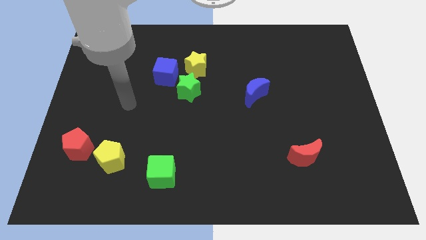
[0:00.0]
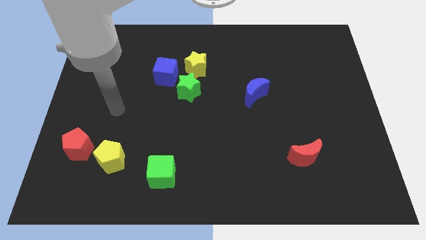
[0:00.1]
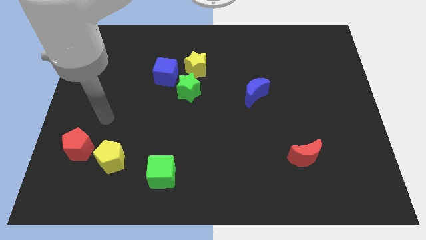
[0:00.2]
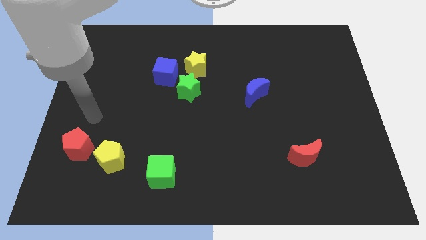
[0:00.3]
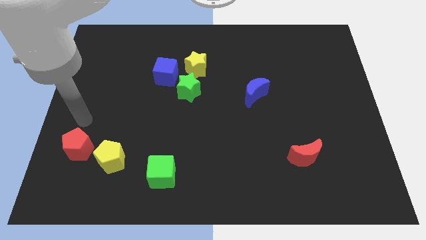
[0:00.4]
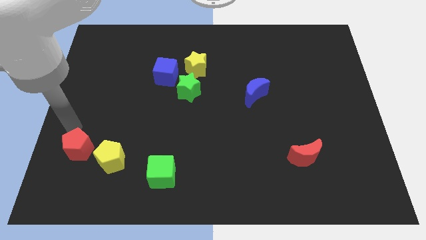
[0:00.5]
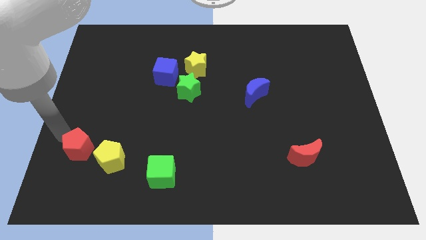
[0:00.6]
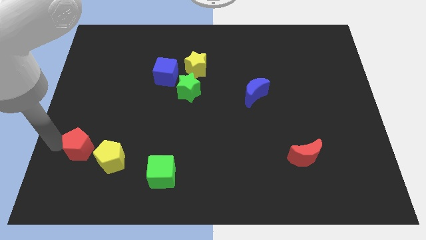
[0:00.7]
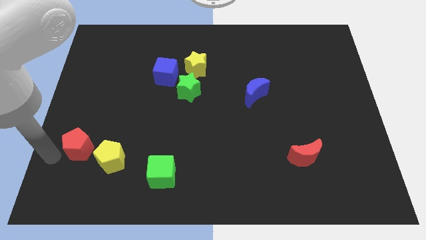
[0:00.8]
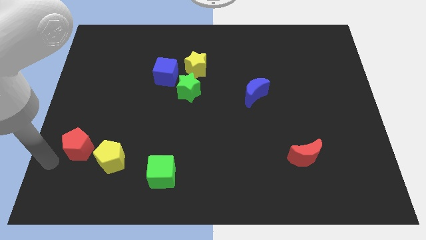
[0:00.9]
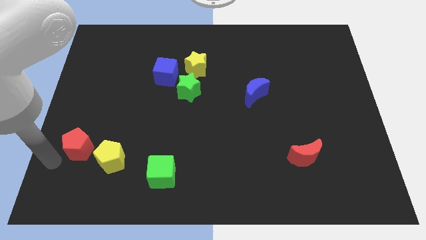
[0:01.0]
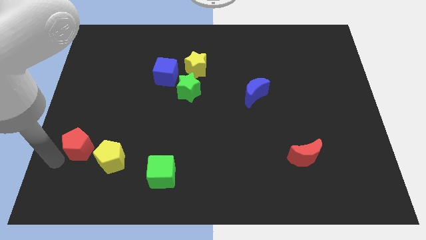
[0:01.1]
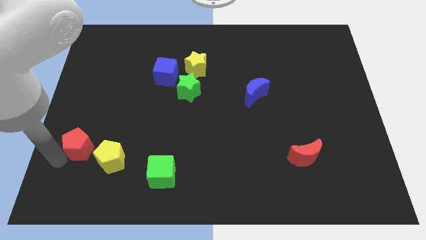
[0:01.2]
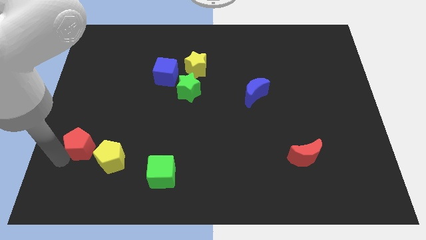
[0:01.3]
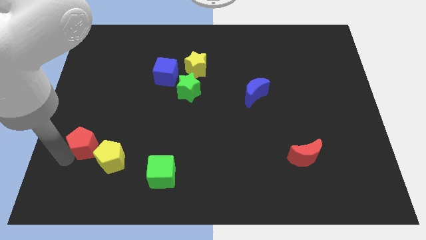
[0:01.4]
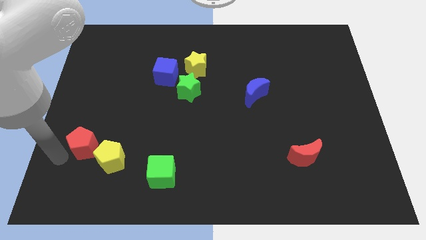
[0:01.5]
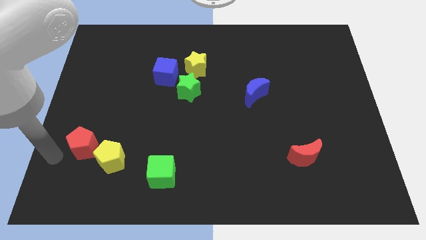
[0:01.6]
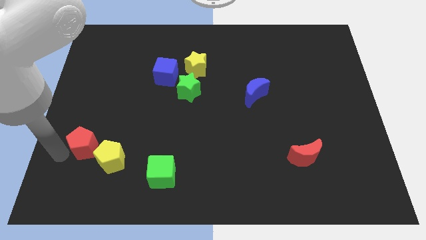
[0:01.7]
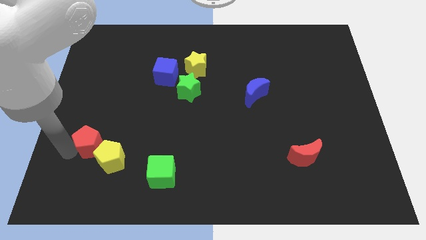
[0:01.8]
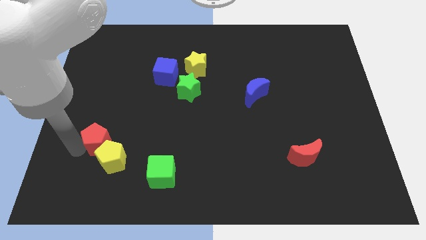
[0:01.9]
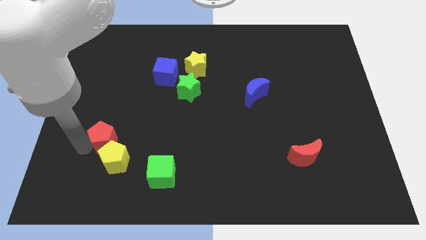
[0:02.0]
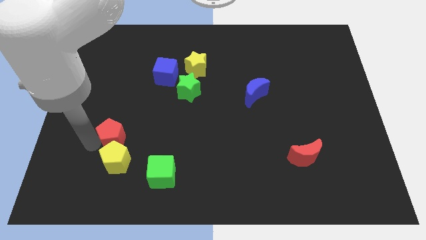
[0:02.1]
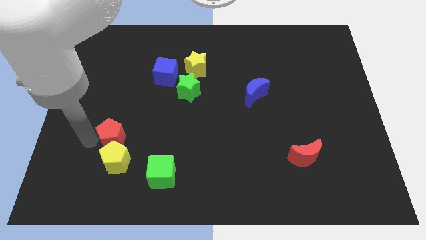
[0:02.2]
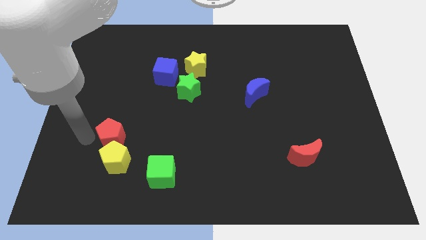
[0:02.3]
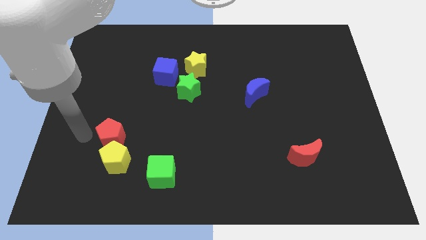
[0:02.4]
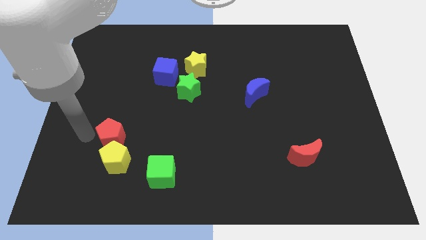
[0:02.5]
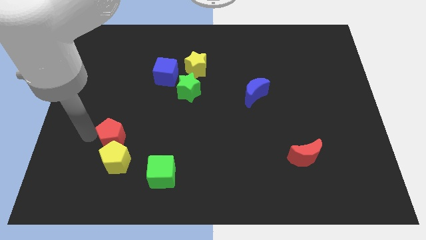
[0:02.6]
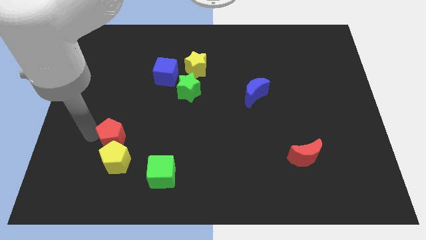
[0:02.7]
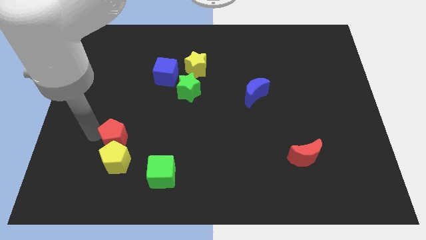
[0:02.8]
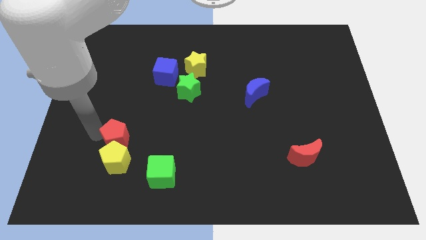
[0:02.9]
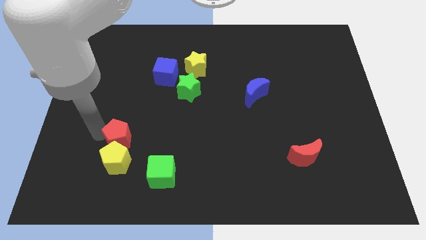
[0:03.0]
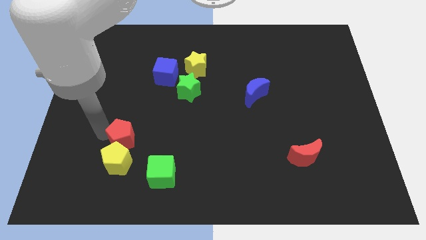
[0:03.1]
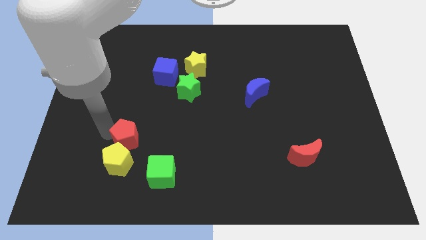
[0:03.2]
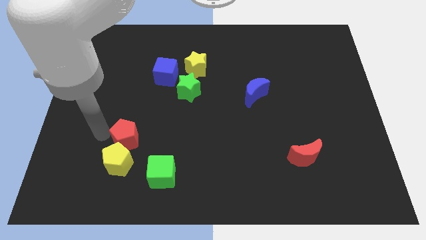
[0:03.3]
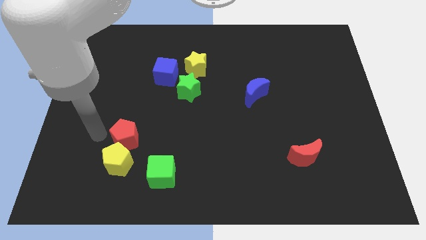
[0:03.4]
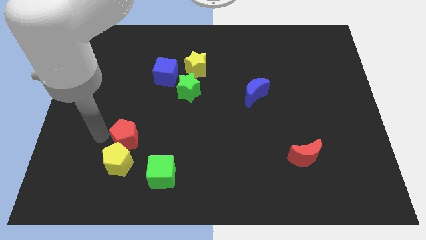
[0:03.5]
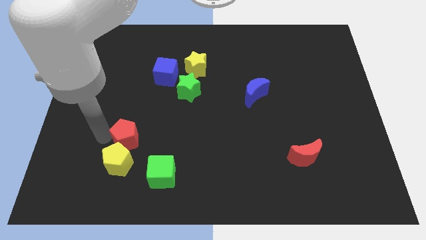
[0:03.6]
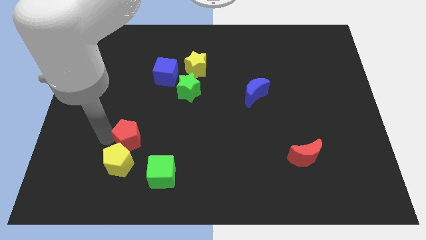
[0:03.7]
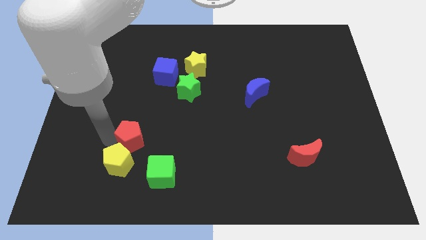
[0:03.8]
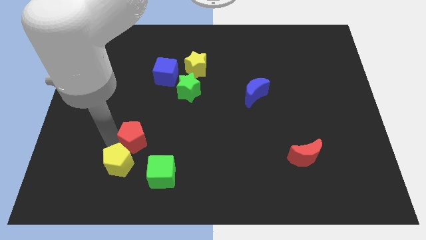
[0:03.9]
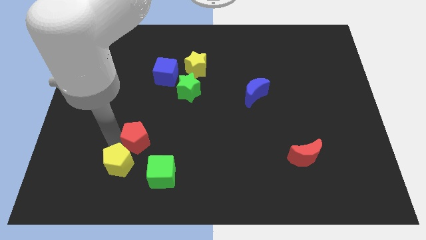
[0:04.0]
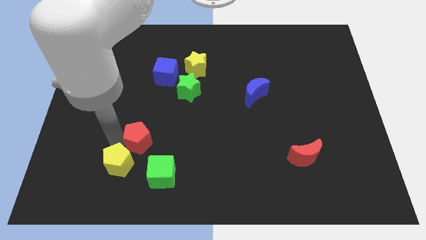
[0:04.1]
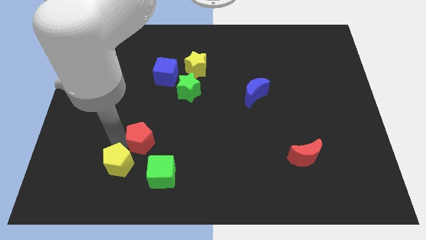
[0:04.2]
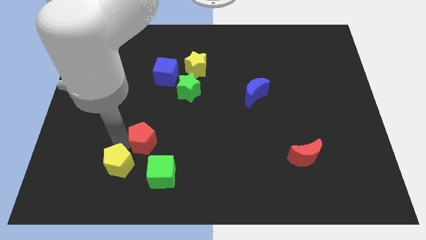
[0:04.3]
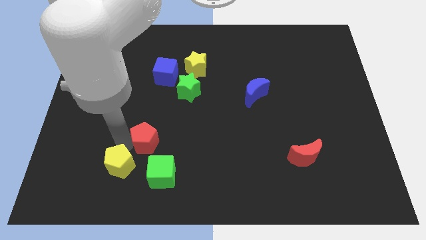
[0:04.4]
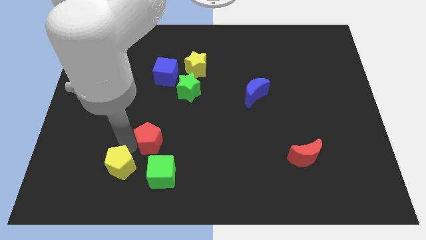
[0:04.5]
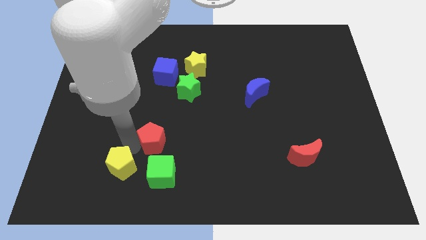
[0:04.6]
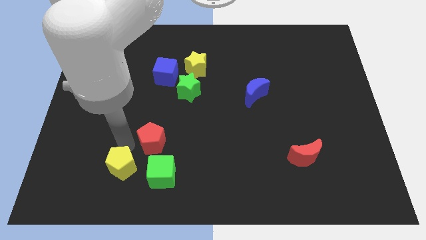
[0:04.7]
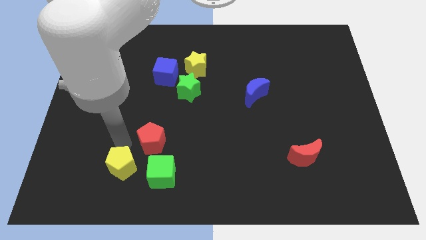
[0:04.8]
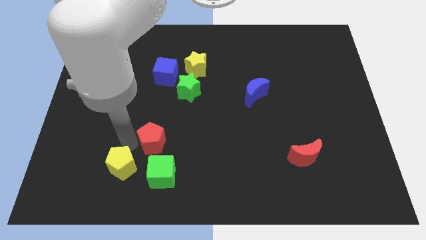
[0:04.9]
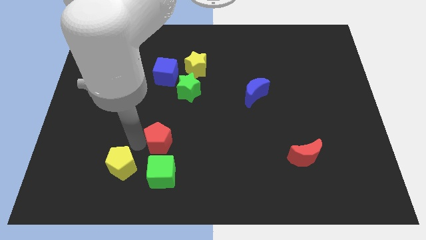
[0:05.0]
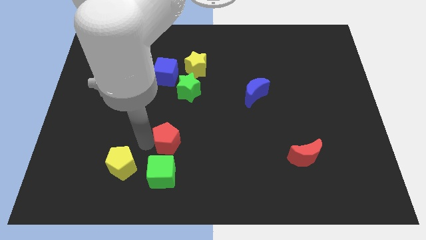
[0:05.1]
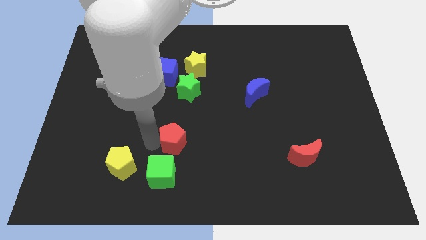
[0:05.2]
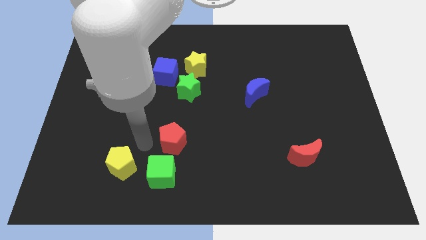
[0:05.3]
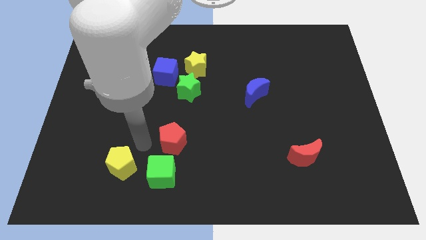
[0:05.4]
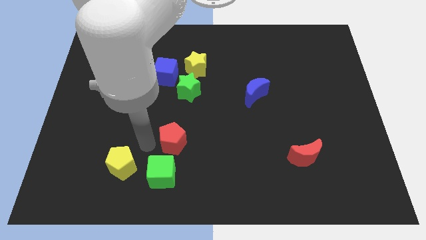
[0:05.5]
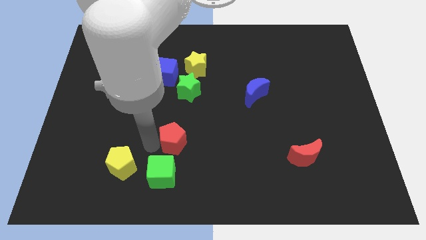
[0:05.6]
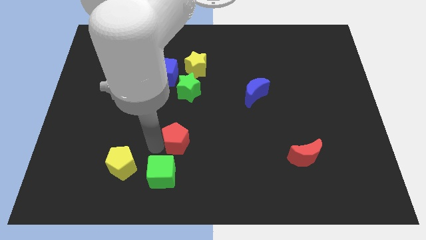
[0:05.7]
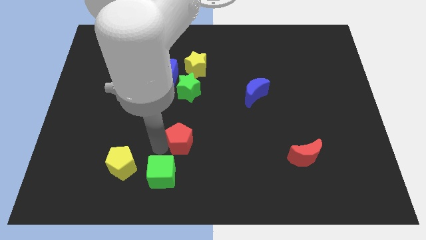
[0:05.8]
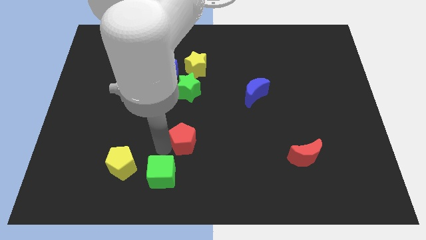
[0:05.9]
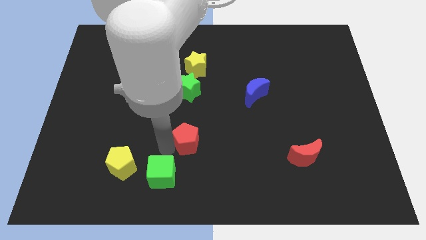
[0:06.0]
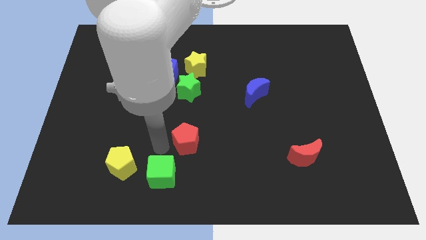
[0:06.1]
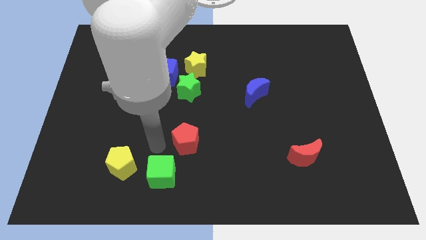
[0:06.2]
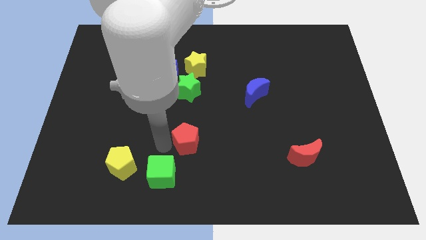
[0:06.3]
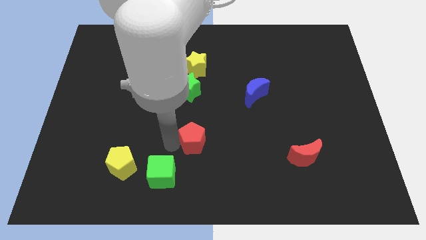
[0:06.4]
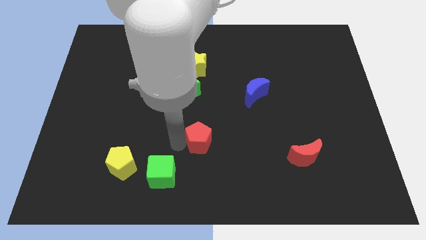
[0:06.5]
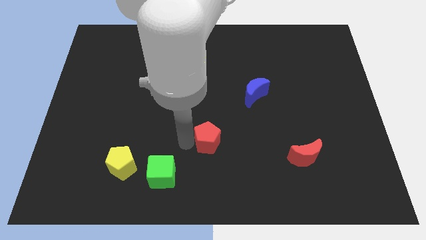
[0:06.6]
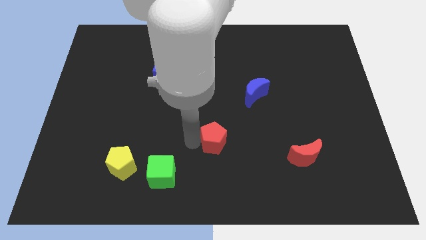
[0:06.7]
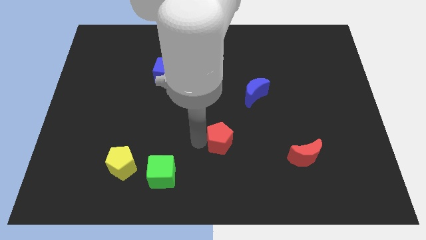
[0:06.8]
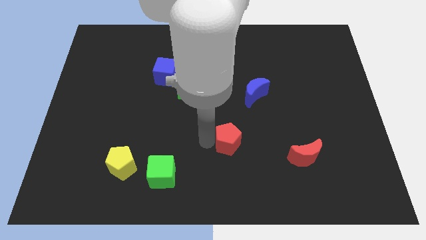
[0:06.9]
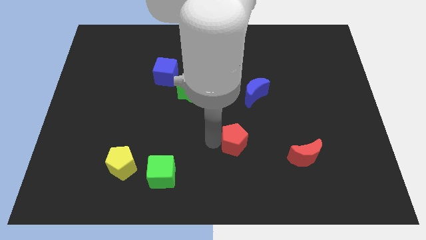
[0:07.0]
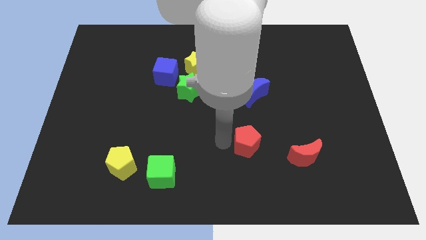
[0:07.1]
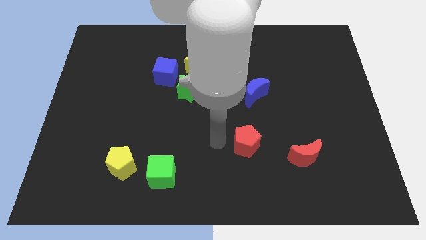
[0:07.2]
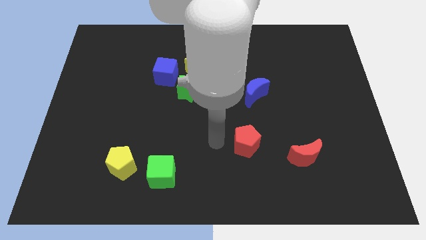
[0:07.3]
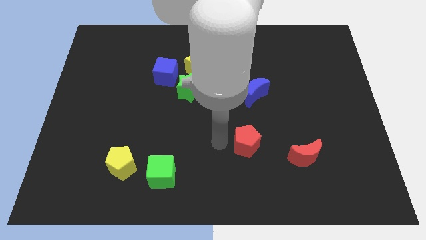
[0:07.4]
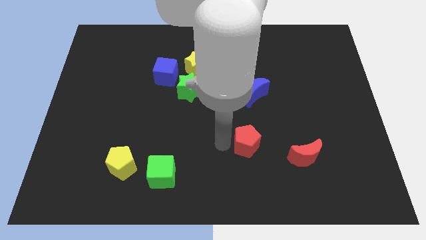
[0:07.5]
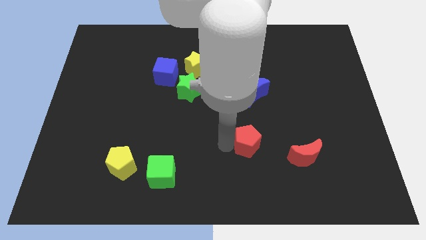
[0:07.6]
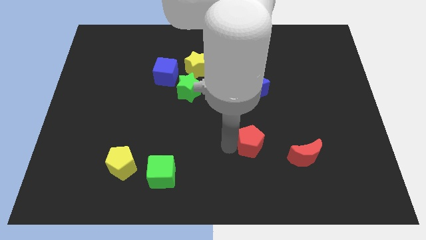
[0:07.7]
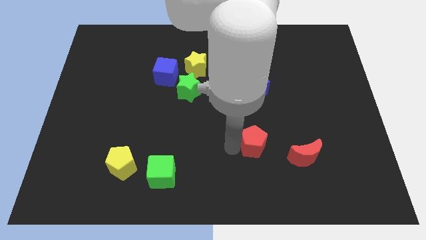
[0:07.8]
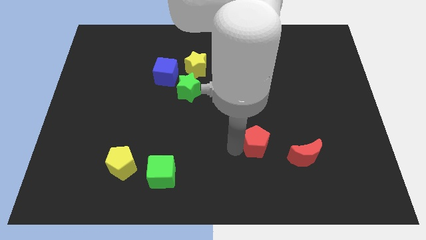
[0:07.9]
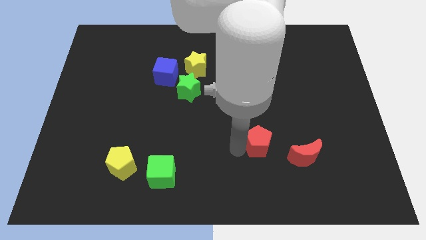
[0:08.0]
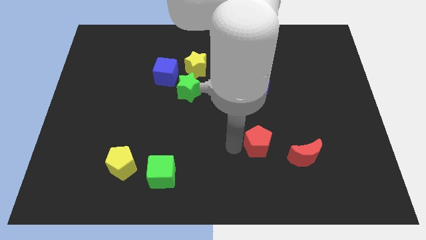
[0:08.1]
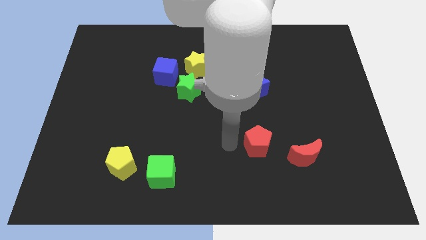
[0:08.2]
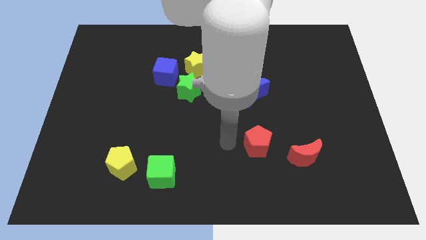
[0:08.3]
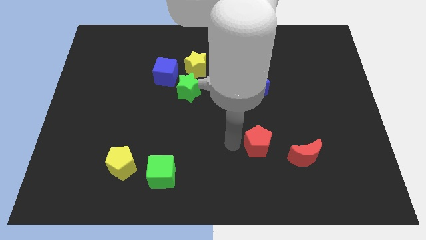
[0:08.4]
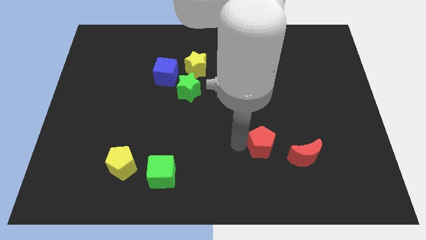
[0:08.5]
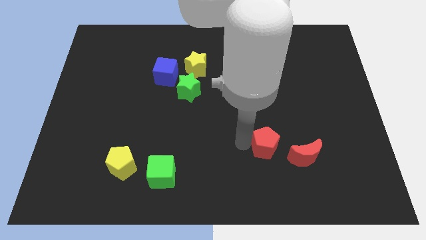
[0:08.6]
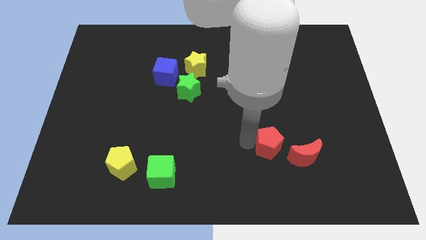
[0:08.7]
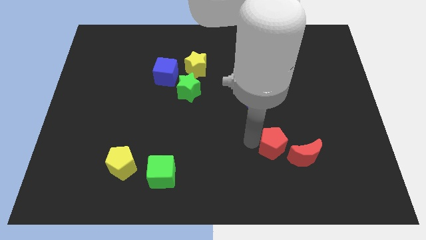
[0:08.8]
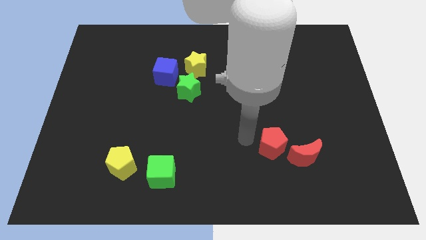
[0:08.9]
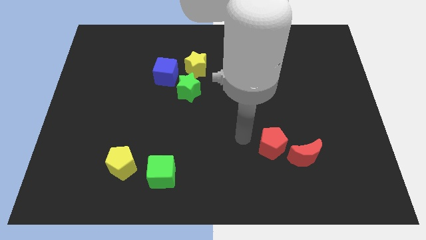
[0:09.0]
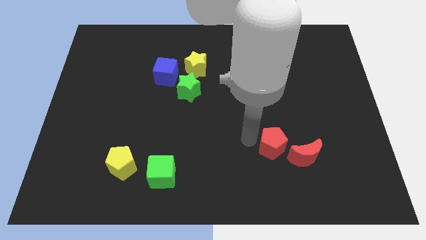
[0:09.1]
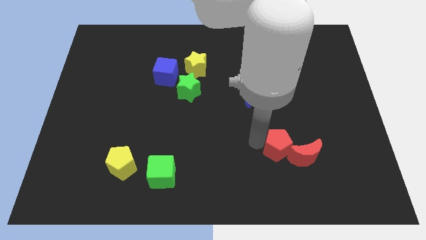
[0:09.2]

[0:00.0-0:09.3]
move the red pentagon next to the red moon
